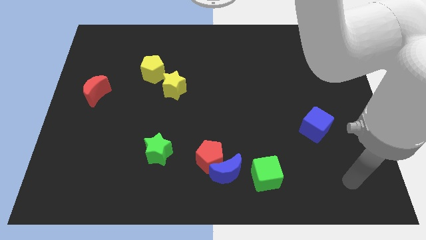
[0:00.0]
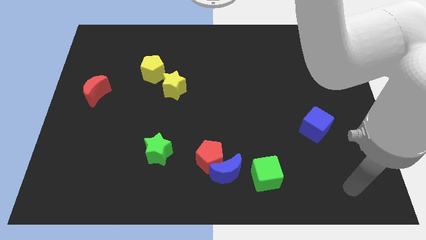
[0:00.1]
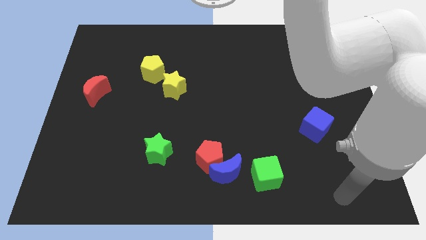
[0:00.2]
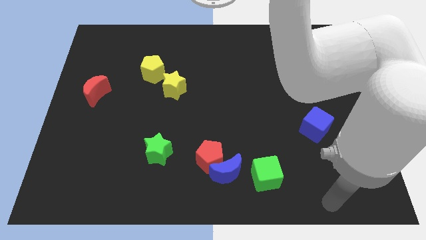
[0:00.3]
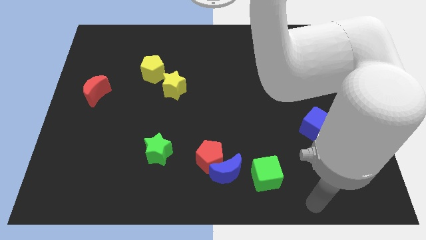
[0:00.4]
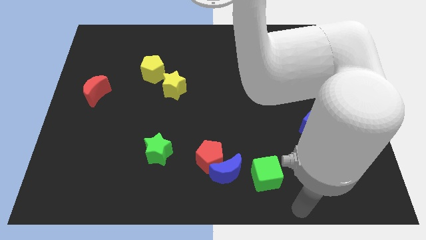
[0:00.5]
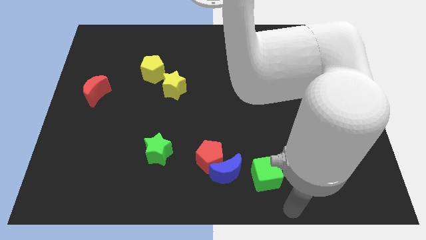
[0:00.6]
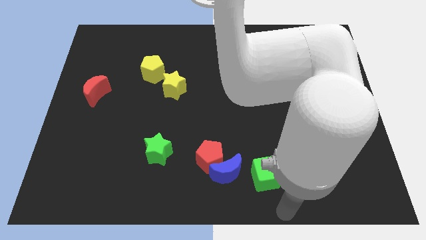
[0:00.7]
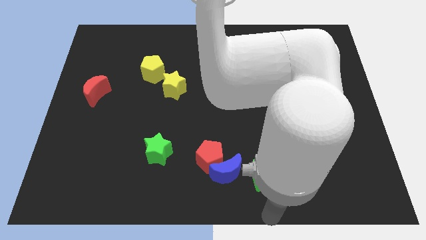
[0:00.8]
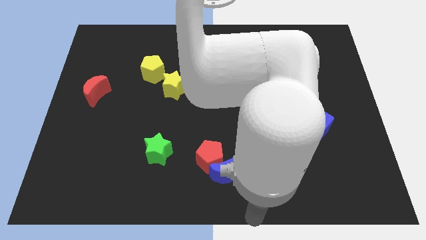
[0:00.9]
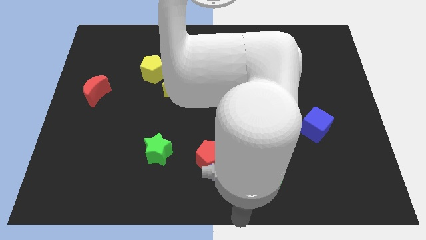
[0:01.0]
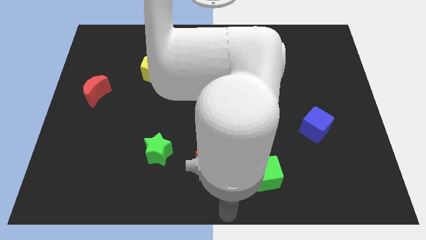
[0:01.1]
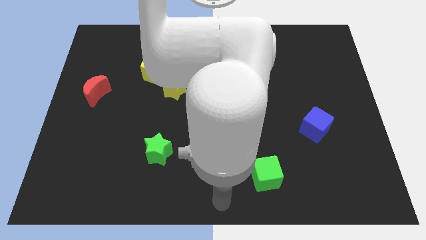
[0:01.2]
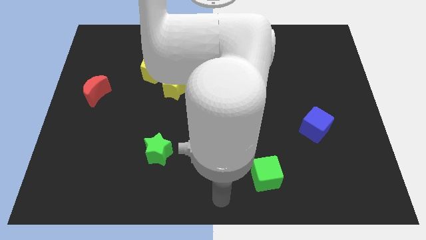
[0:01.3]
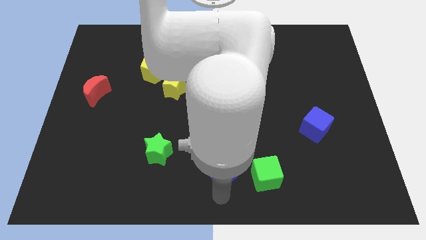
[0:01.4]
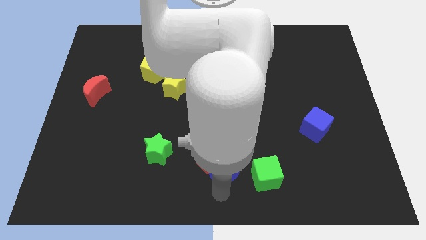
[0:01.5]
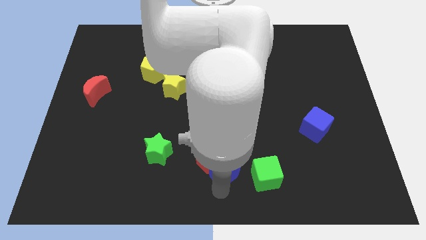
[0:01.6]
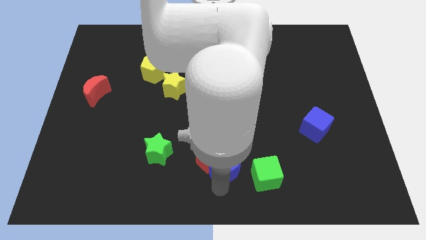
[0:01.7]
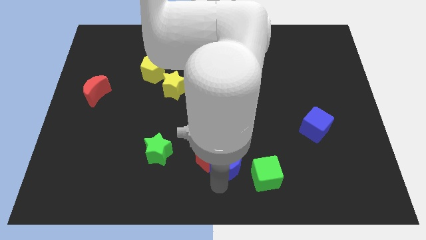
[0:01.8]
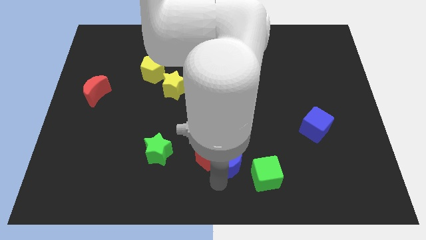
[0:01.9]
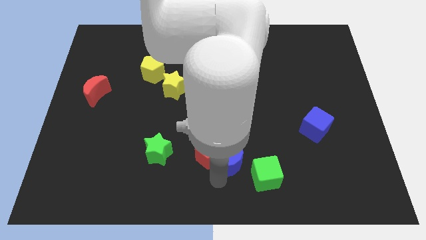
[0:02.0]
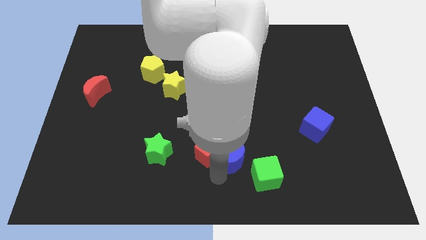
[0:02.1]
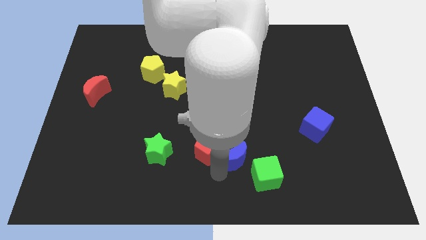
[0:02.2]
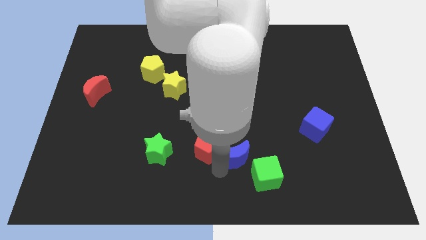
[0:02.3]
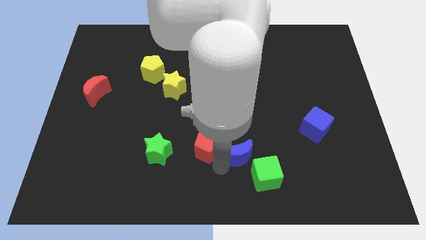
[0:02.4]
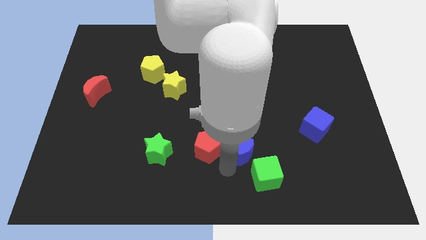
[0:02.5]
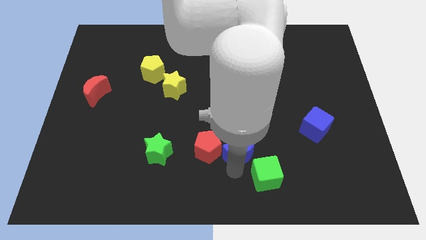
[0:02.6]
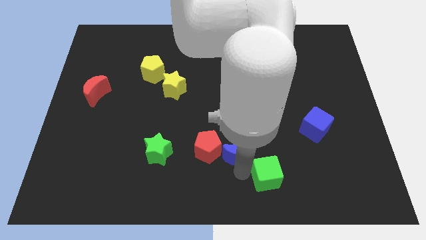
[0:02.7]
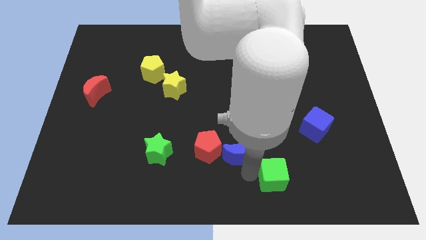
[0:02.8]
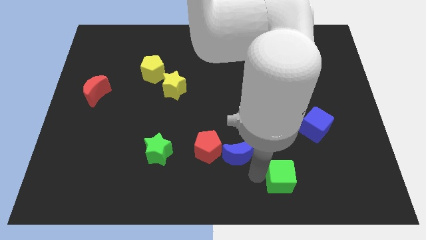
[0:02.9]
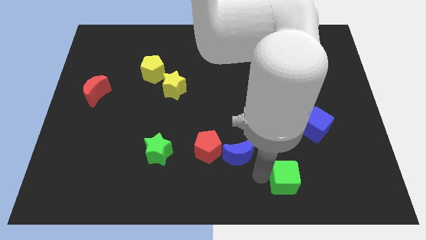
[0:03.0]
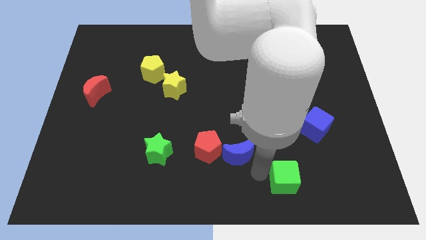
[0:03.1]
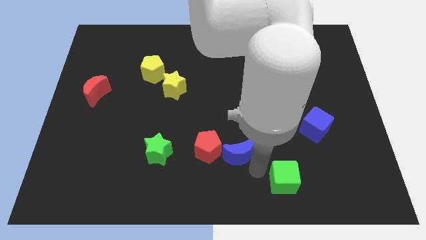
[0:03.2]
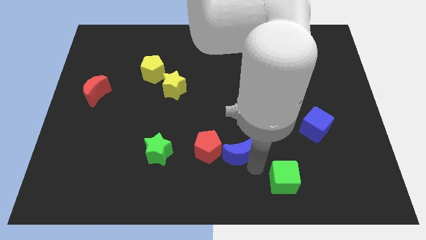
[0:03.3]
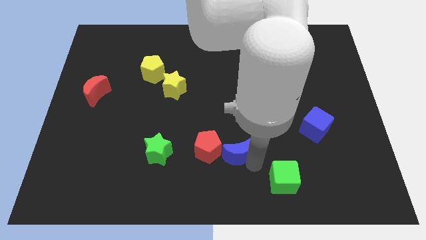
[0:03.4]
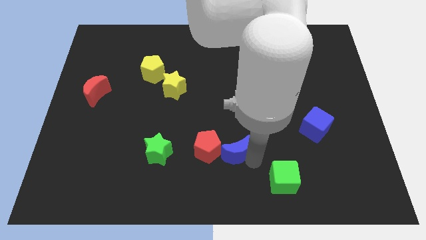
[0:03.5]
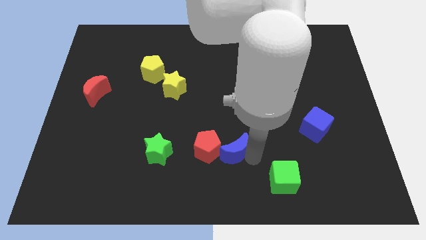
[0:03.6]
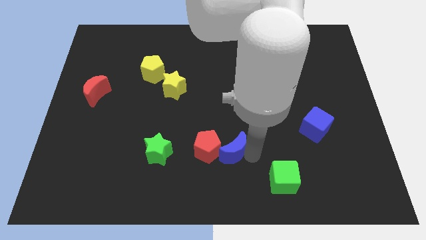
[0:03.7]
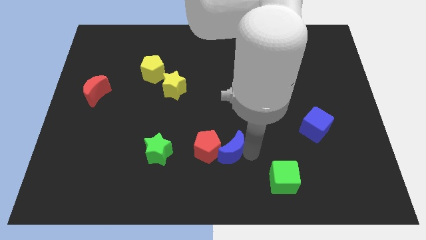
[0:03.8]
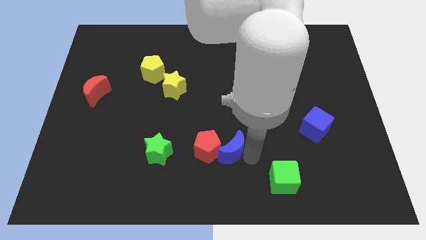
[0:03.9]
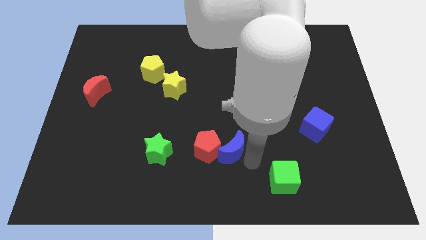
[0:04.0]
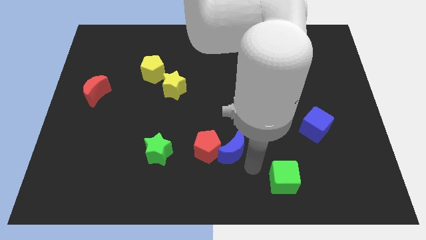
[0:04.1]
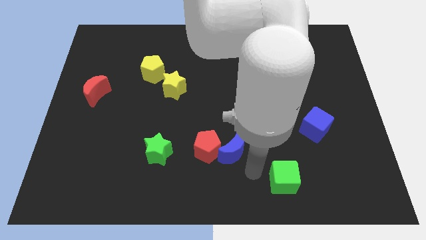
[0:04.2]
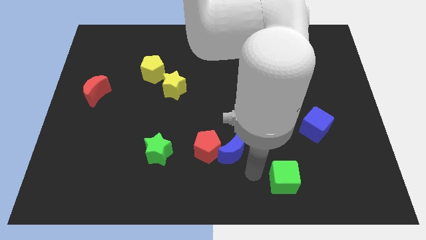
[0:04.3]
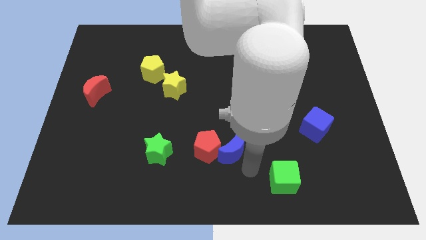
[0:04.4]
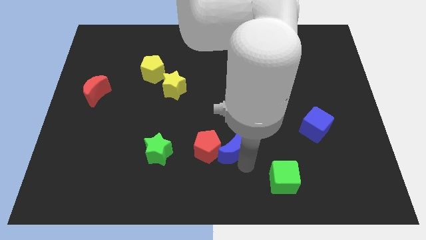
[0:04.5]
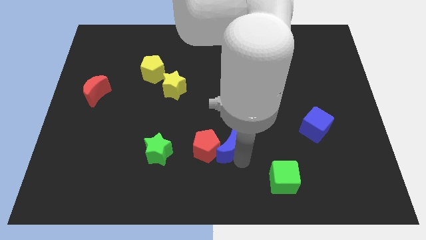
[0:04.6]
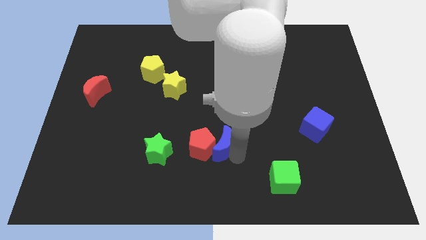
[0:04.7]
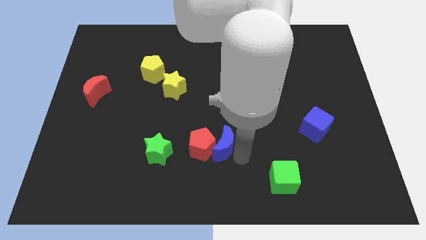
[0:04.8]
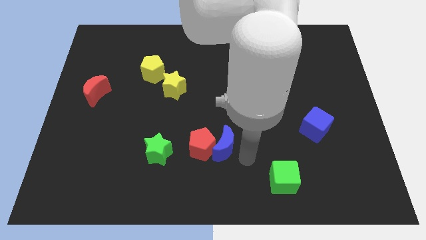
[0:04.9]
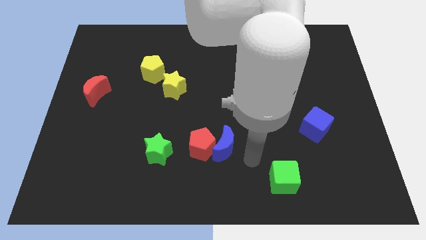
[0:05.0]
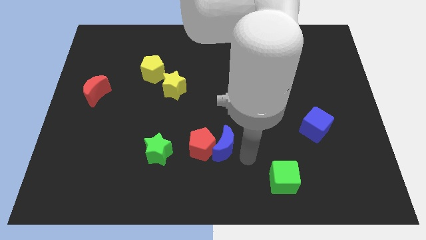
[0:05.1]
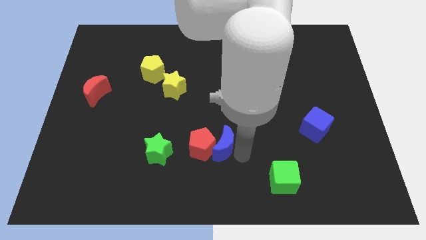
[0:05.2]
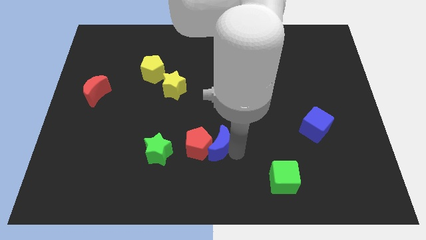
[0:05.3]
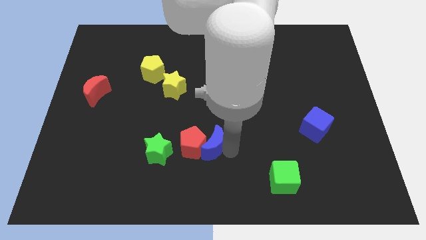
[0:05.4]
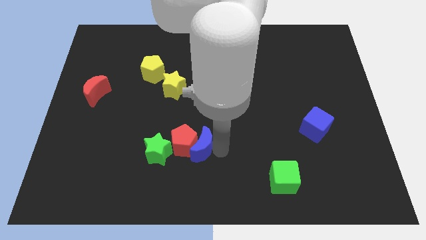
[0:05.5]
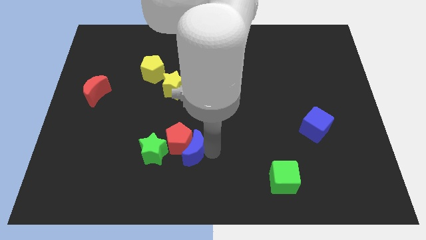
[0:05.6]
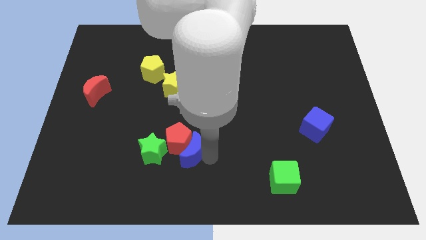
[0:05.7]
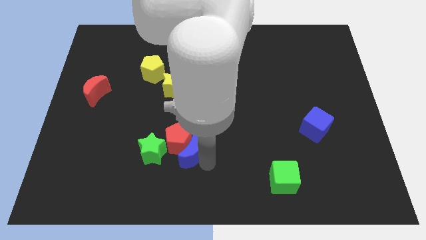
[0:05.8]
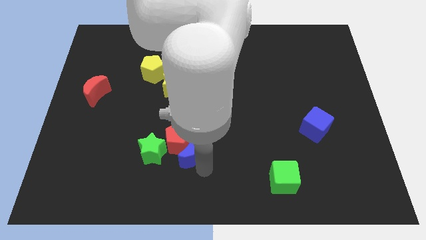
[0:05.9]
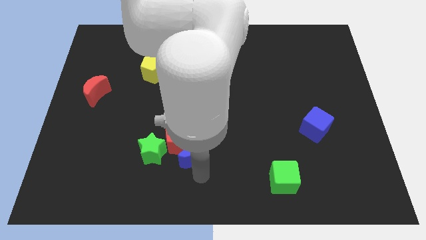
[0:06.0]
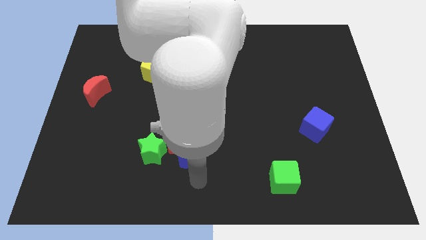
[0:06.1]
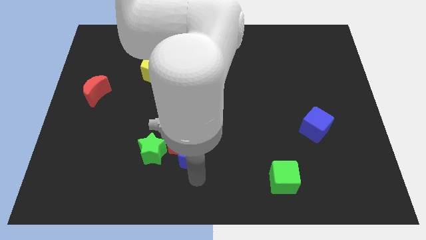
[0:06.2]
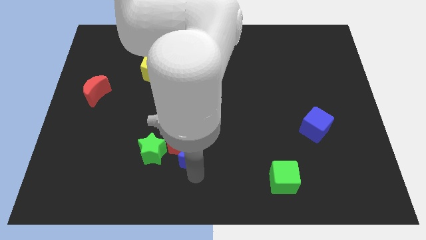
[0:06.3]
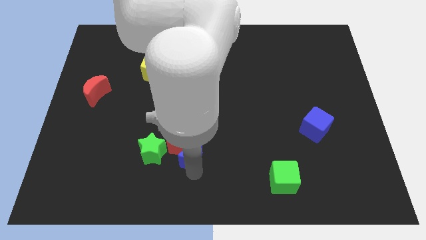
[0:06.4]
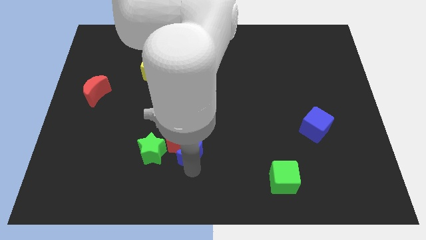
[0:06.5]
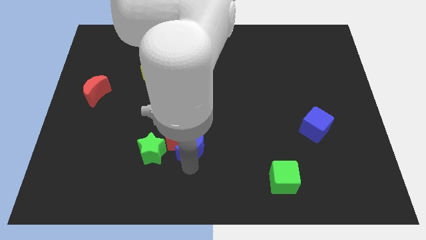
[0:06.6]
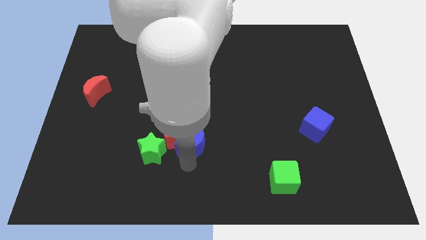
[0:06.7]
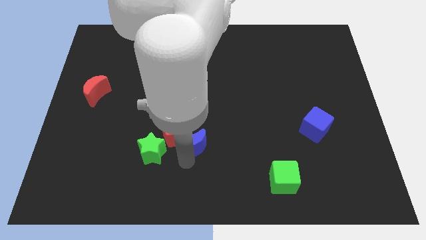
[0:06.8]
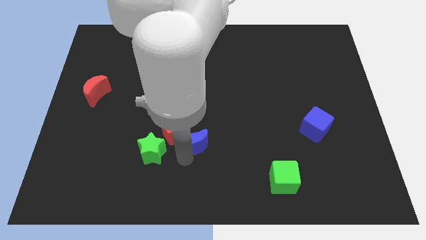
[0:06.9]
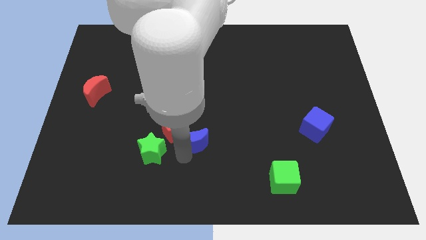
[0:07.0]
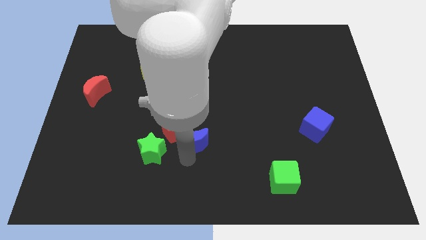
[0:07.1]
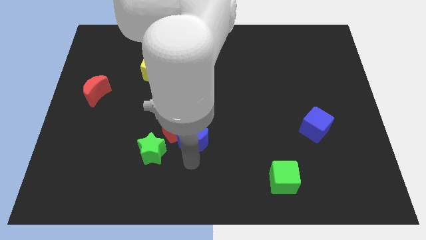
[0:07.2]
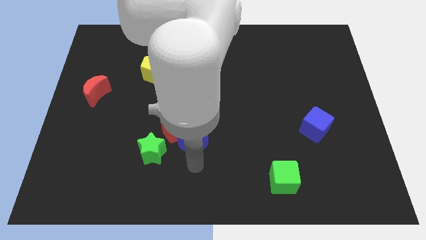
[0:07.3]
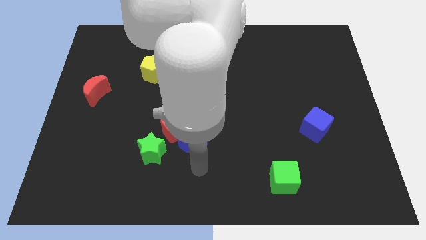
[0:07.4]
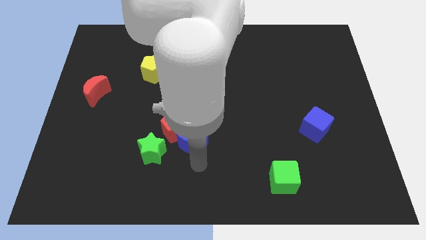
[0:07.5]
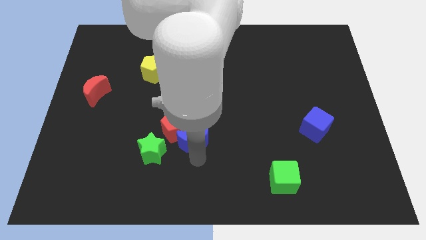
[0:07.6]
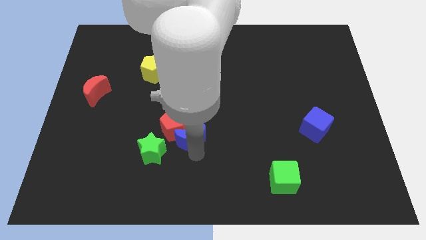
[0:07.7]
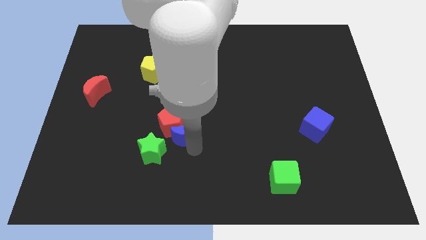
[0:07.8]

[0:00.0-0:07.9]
slide the blue moon to the bottom of the yellow star
